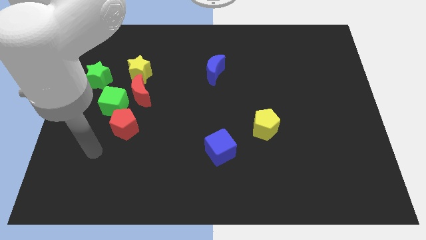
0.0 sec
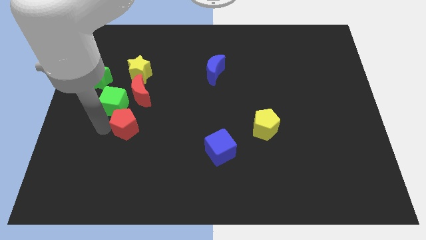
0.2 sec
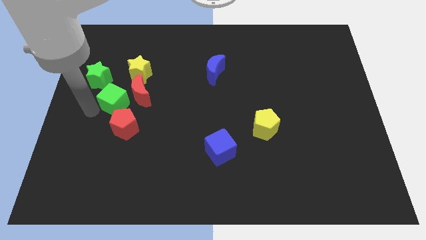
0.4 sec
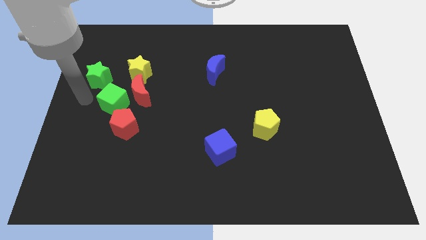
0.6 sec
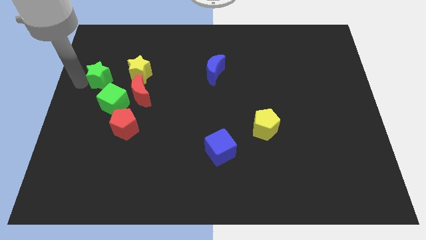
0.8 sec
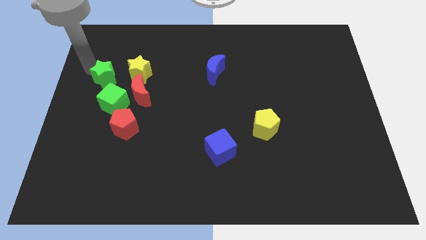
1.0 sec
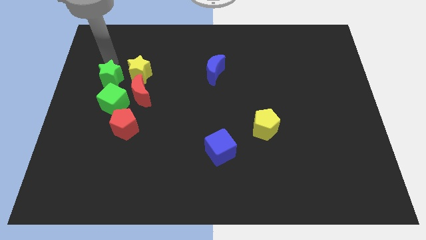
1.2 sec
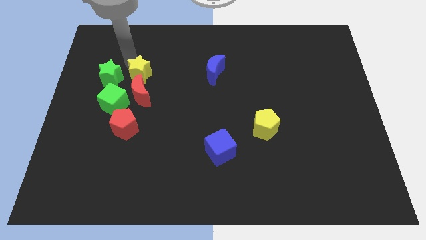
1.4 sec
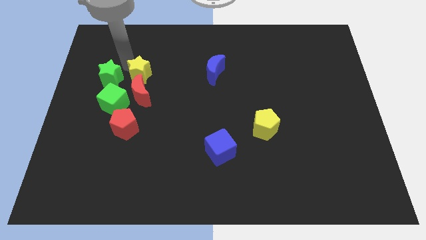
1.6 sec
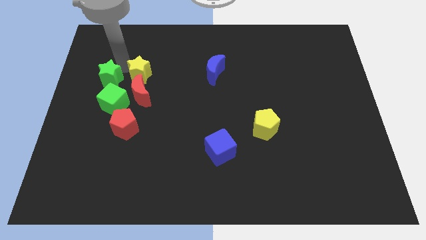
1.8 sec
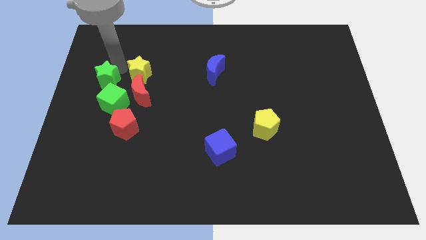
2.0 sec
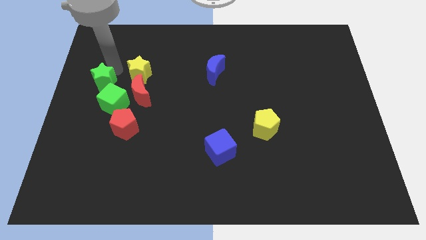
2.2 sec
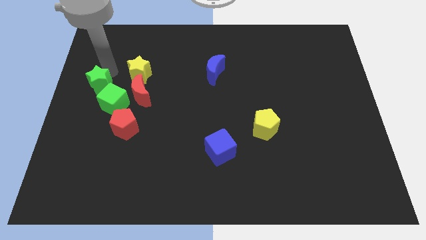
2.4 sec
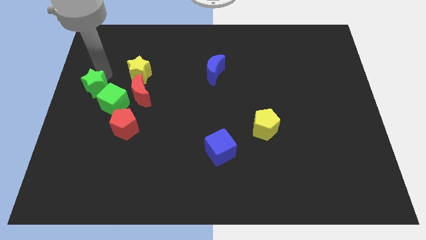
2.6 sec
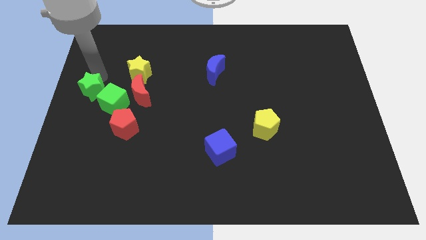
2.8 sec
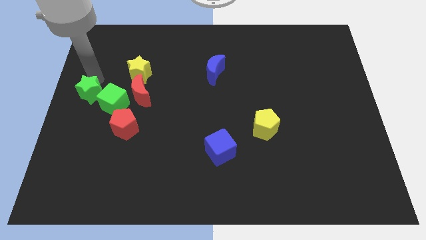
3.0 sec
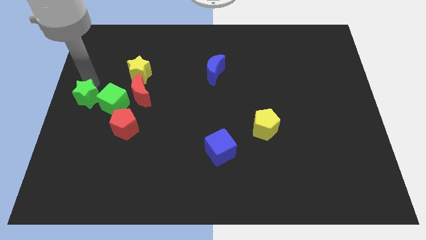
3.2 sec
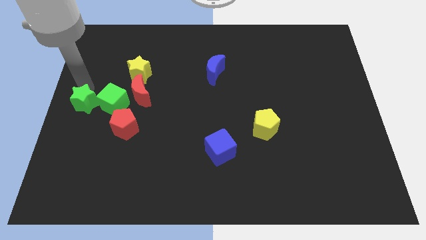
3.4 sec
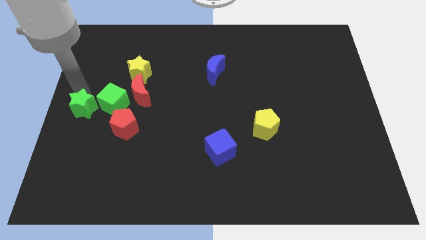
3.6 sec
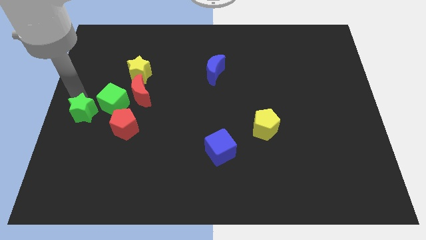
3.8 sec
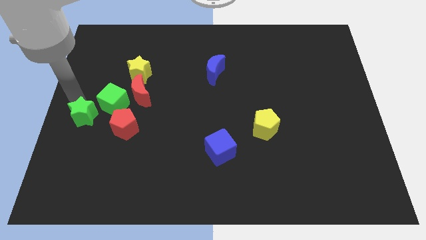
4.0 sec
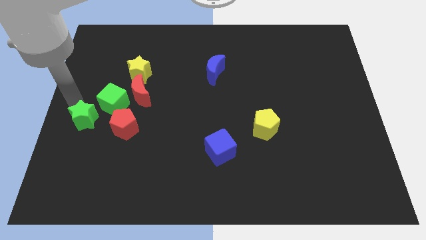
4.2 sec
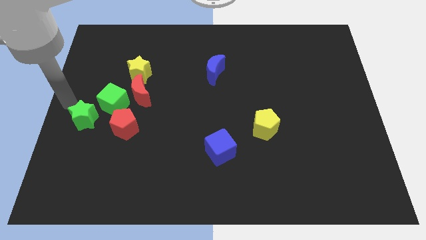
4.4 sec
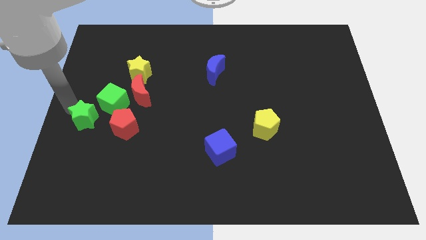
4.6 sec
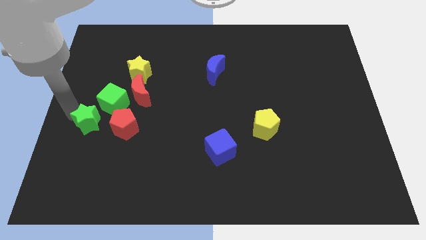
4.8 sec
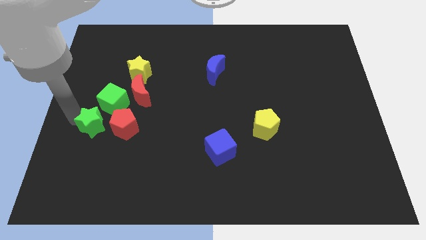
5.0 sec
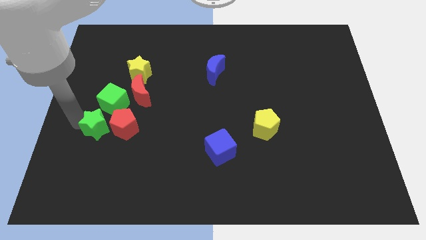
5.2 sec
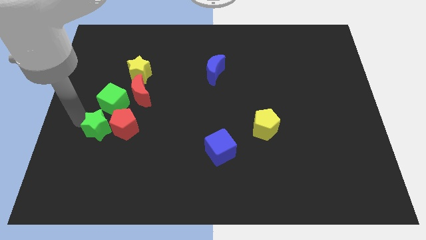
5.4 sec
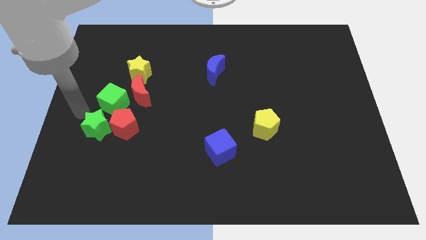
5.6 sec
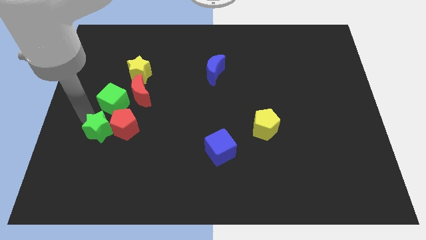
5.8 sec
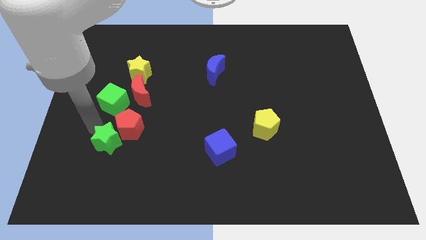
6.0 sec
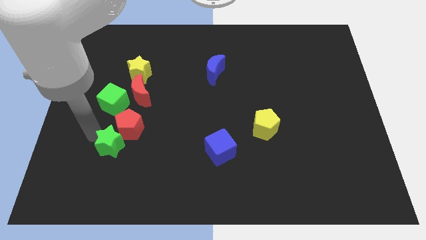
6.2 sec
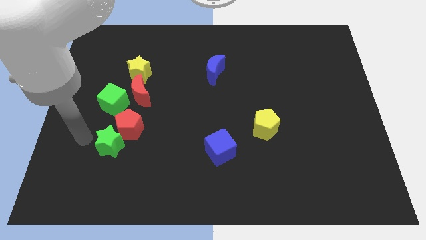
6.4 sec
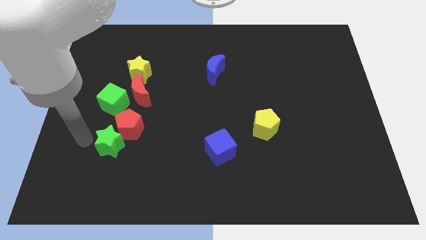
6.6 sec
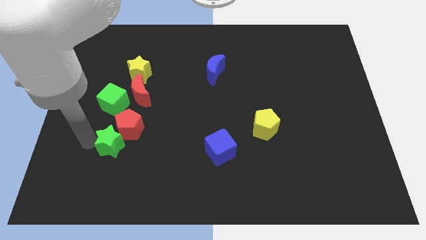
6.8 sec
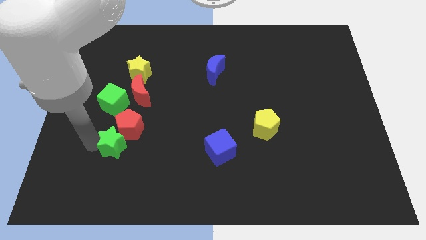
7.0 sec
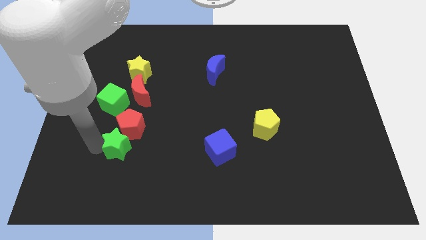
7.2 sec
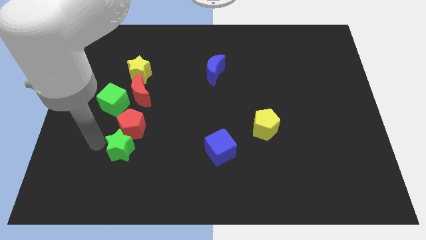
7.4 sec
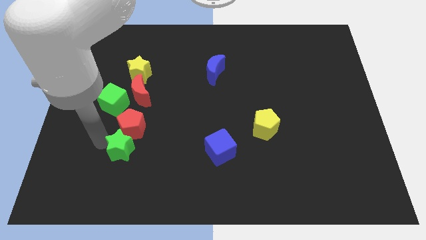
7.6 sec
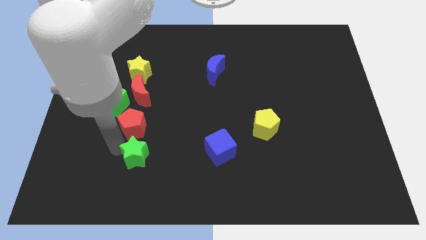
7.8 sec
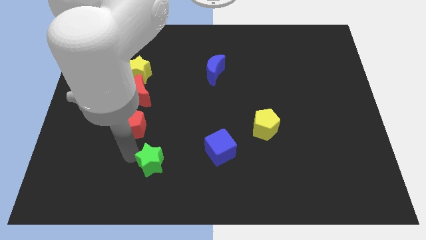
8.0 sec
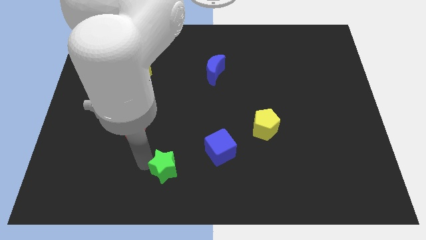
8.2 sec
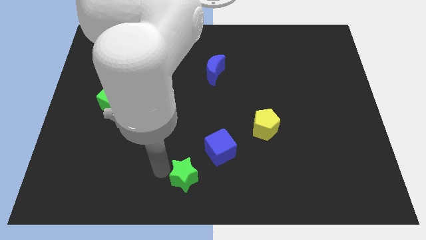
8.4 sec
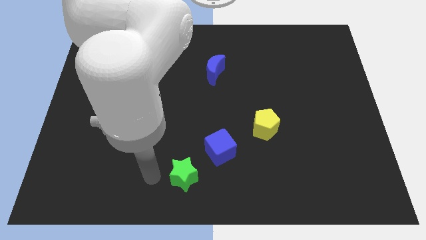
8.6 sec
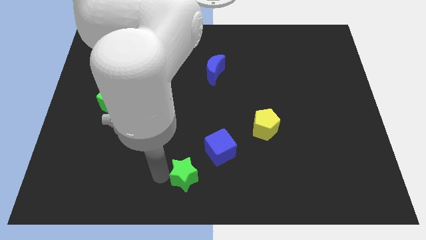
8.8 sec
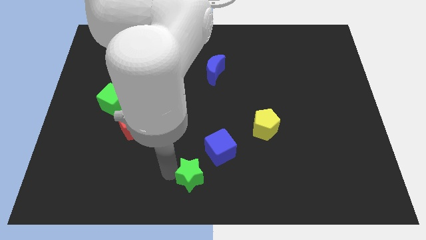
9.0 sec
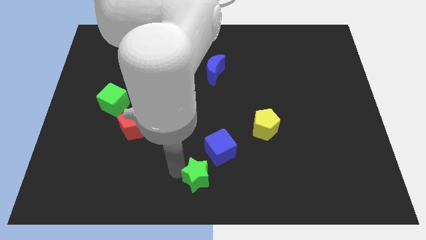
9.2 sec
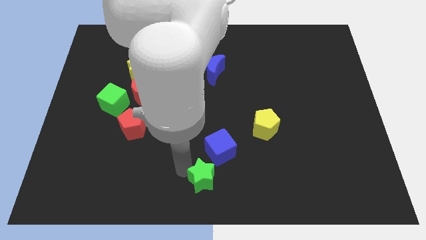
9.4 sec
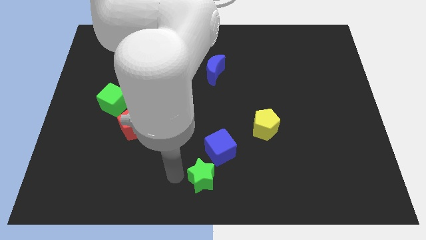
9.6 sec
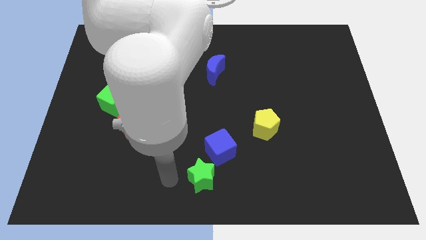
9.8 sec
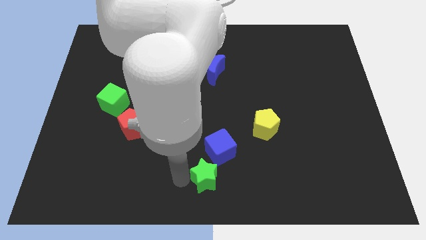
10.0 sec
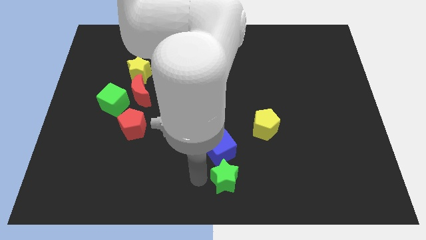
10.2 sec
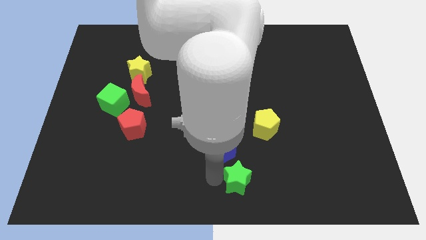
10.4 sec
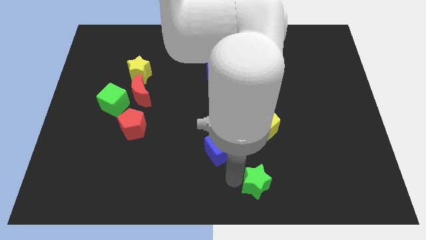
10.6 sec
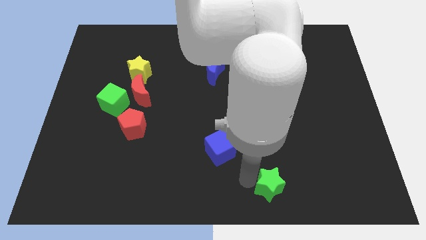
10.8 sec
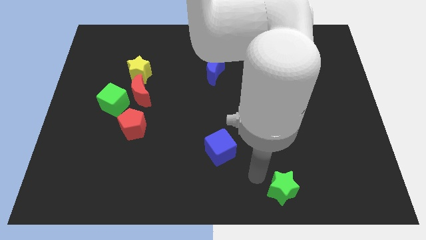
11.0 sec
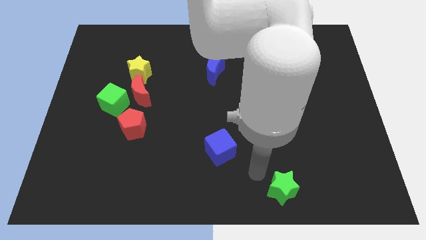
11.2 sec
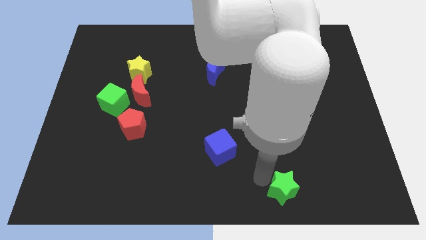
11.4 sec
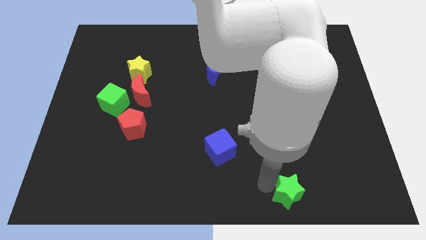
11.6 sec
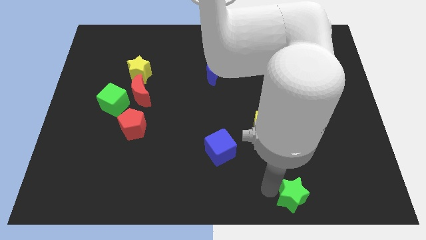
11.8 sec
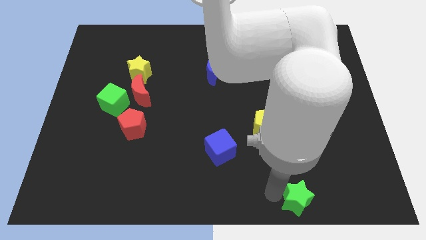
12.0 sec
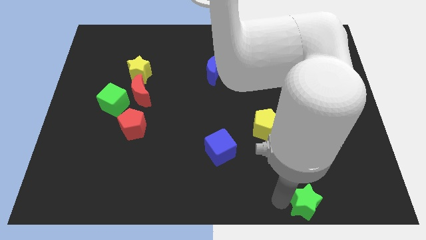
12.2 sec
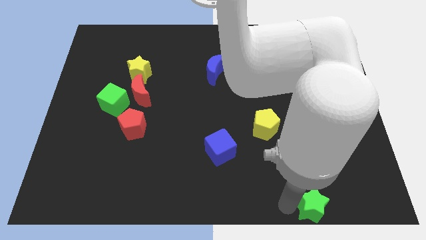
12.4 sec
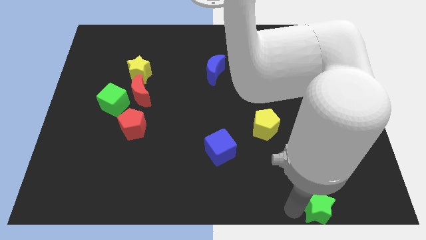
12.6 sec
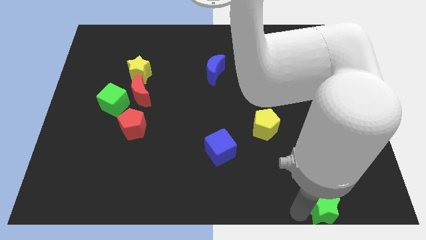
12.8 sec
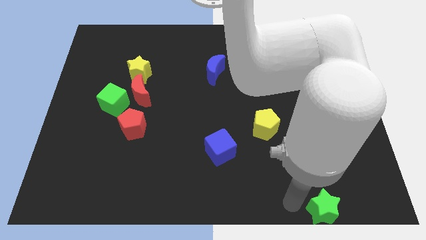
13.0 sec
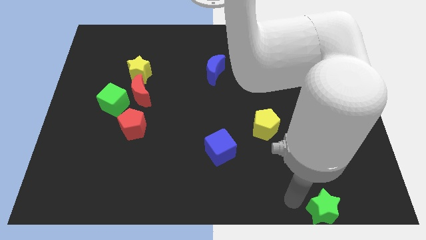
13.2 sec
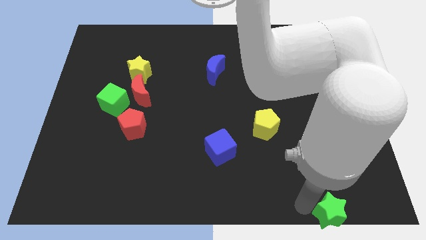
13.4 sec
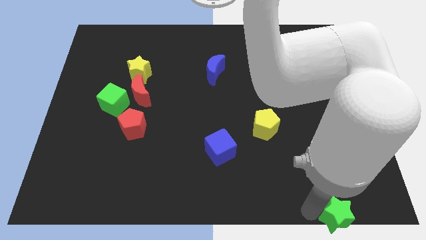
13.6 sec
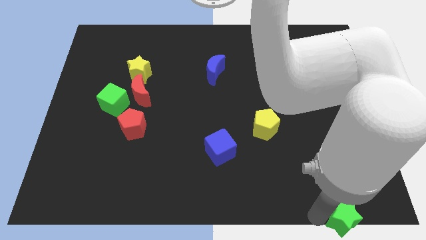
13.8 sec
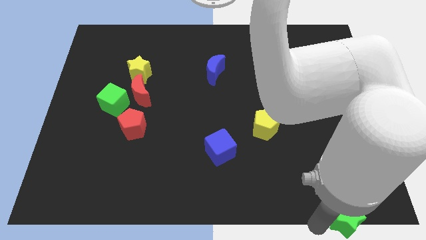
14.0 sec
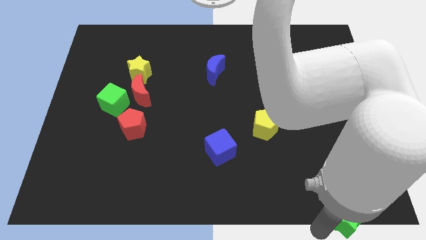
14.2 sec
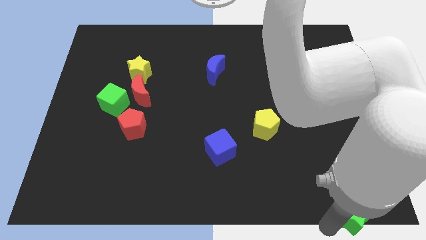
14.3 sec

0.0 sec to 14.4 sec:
push the green star to the bottom right of the board
